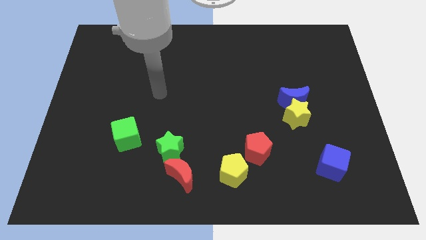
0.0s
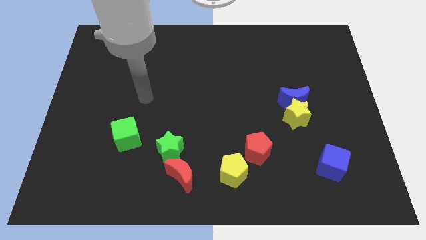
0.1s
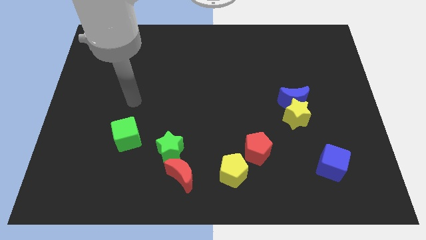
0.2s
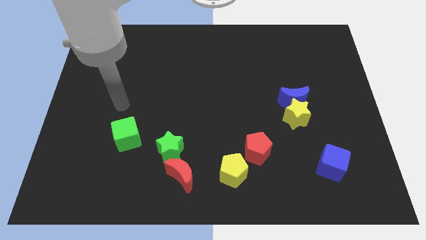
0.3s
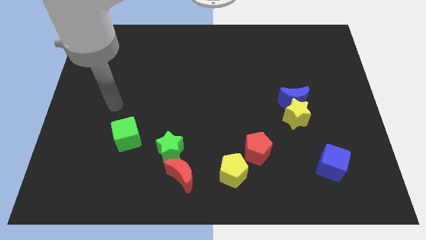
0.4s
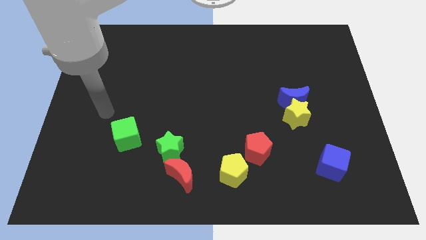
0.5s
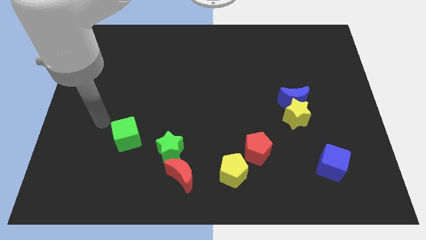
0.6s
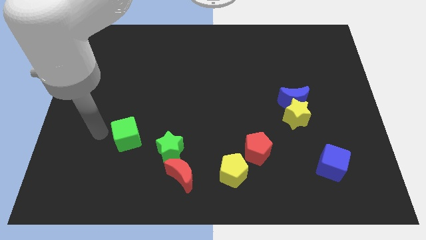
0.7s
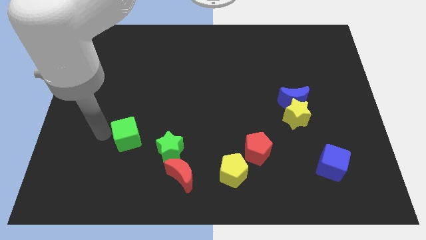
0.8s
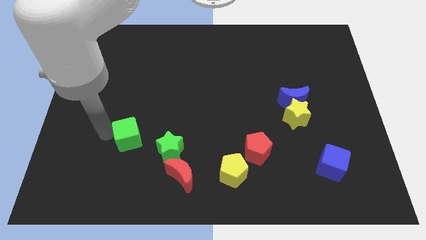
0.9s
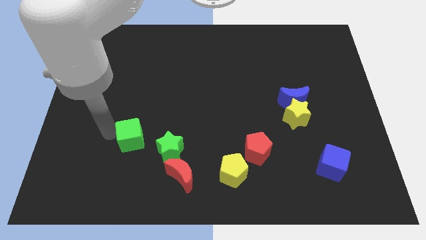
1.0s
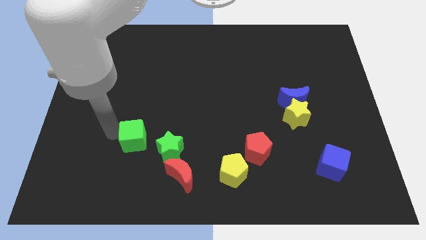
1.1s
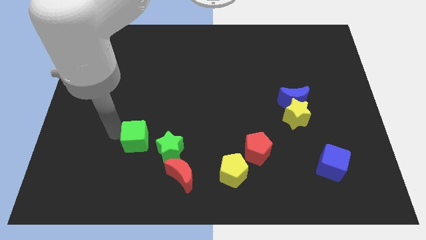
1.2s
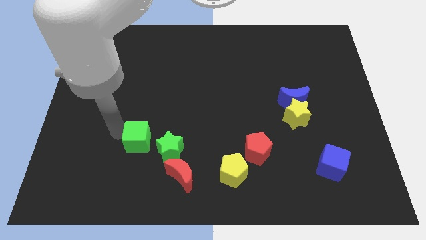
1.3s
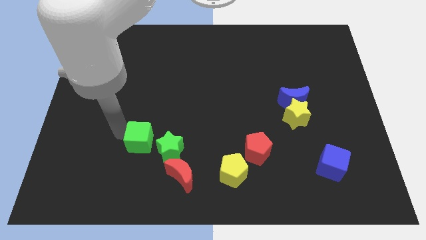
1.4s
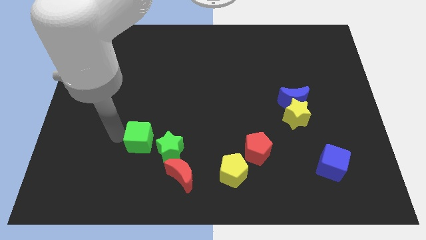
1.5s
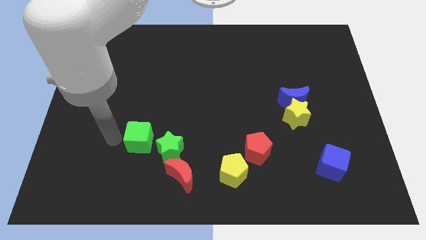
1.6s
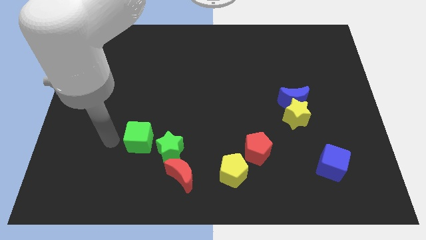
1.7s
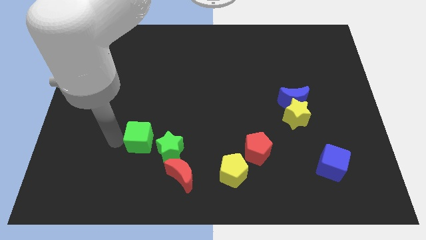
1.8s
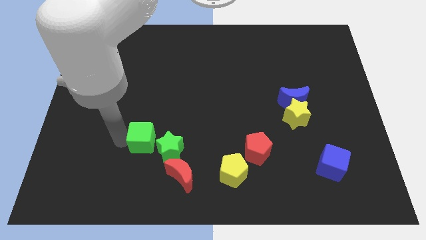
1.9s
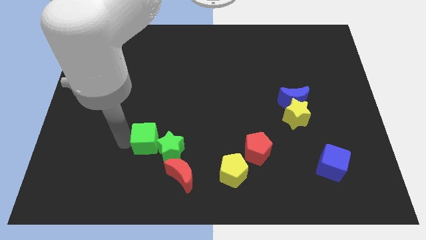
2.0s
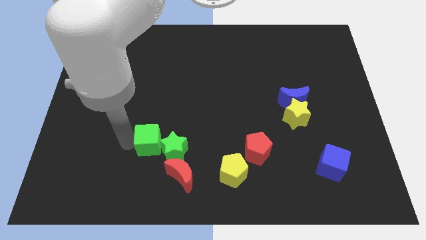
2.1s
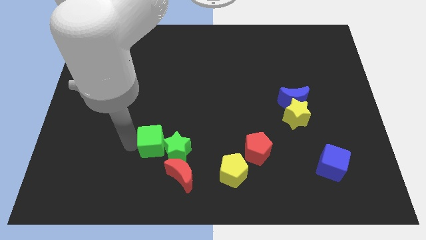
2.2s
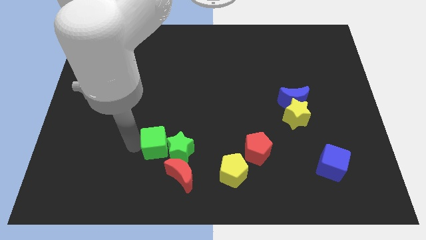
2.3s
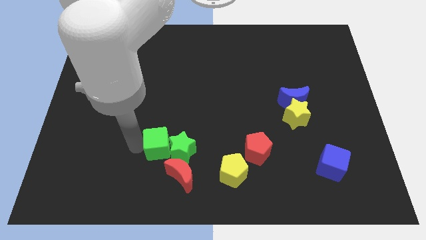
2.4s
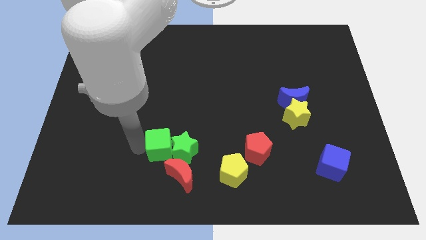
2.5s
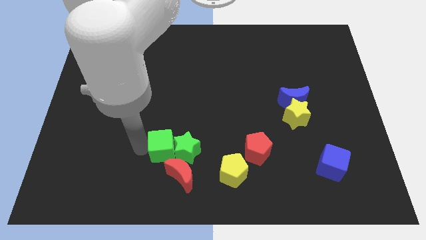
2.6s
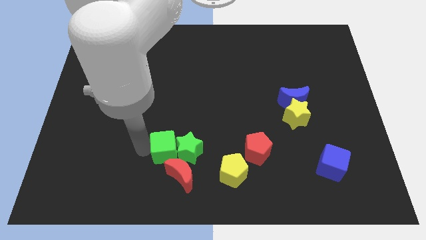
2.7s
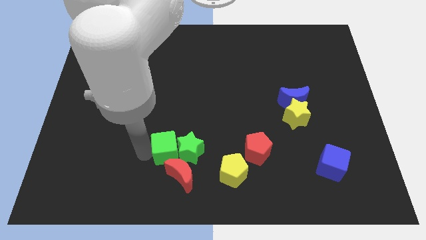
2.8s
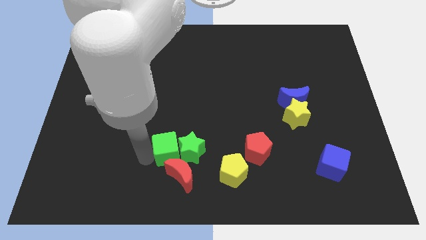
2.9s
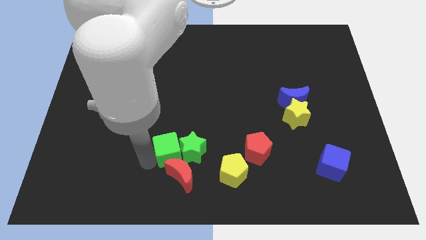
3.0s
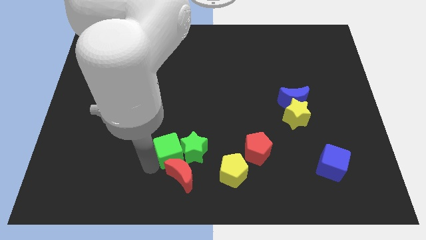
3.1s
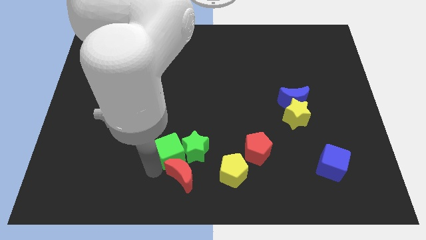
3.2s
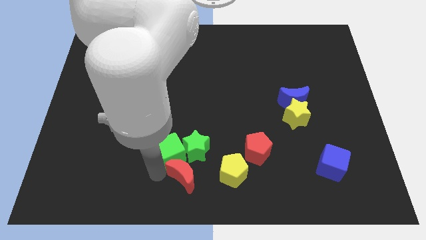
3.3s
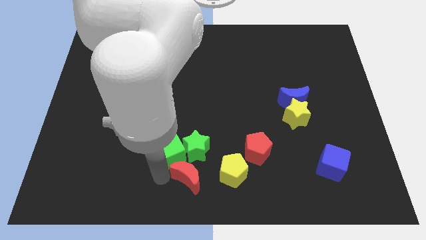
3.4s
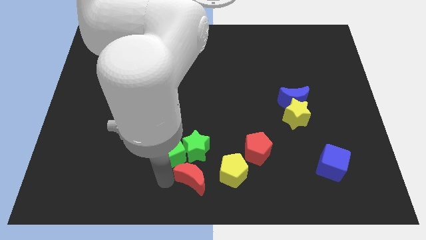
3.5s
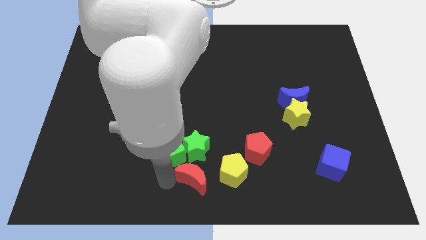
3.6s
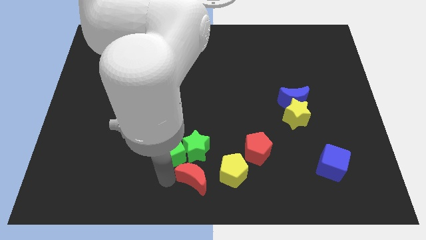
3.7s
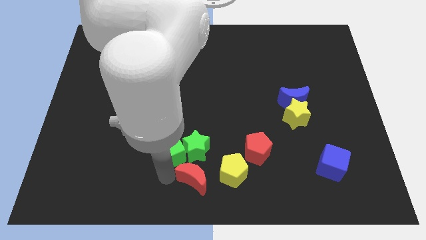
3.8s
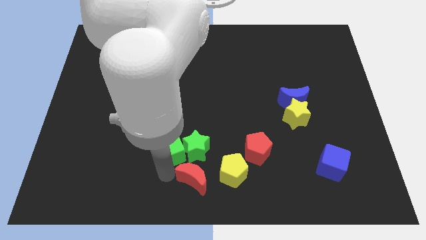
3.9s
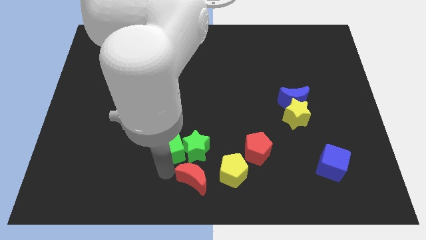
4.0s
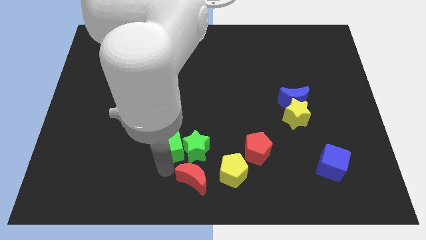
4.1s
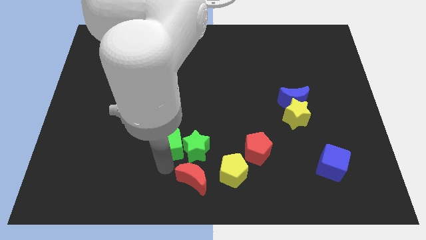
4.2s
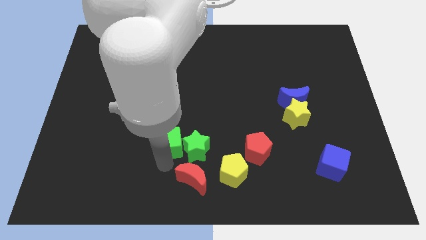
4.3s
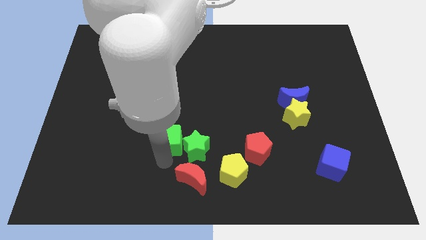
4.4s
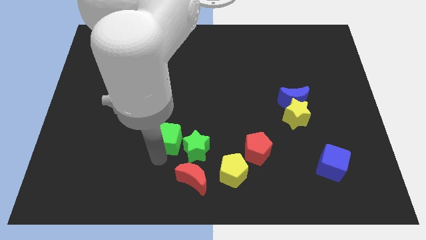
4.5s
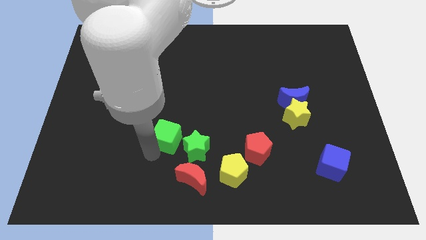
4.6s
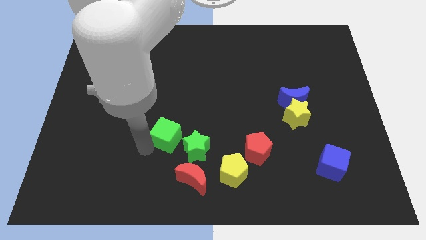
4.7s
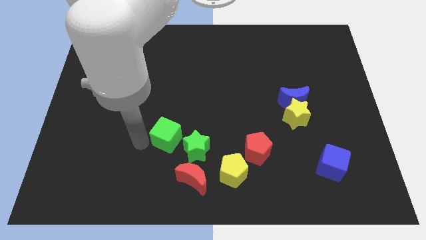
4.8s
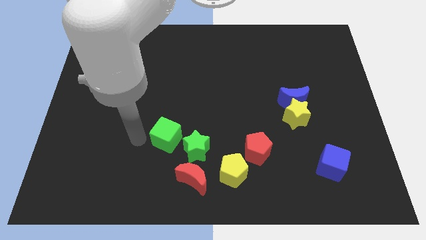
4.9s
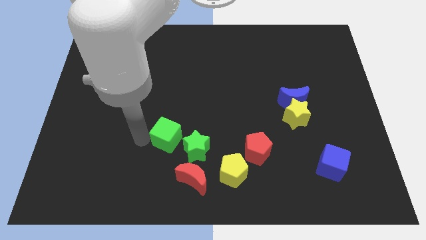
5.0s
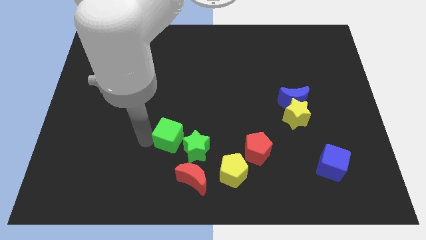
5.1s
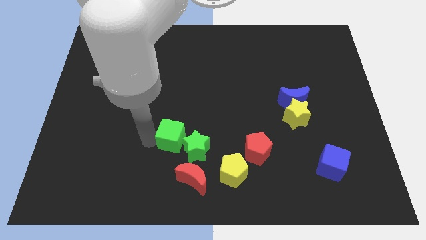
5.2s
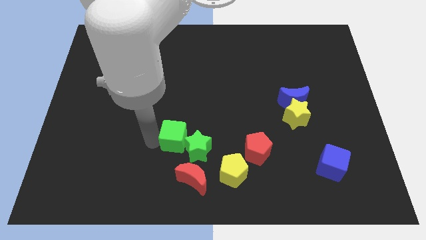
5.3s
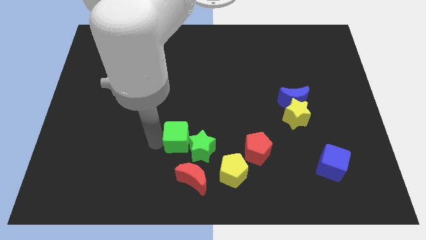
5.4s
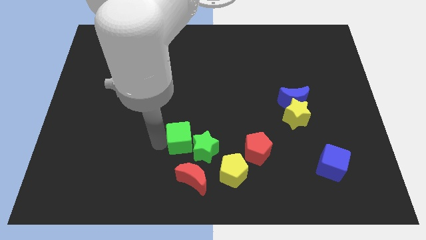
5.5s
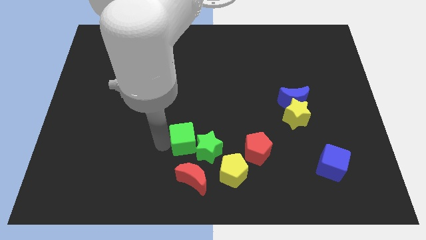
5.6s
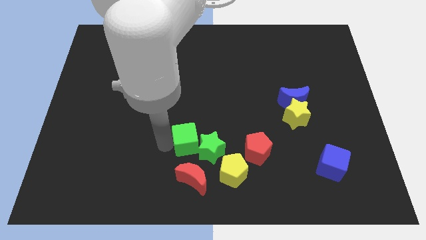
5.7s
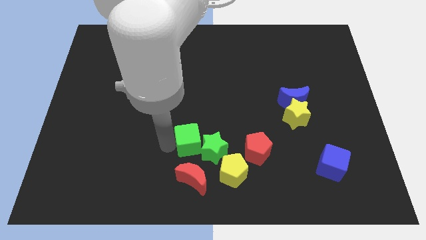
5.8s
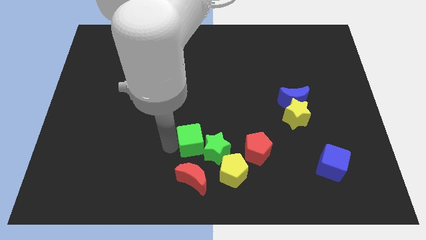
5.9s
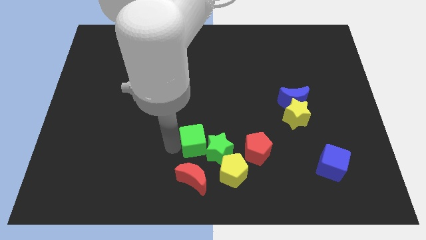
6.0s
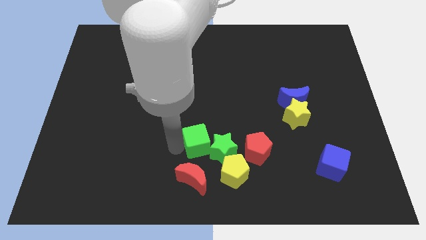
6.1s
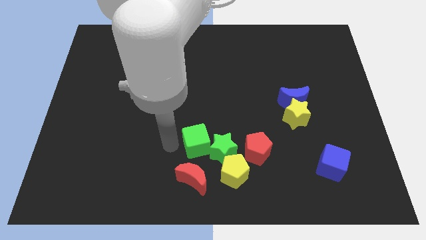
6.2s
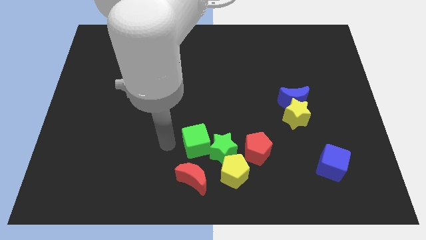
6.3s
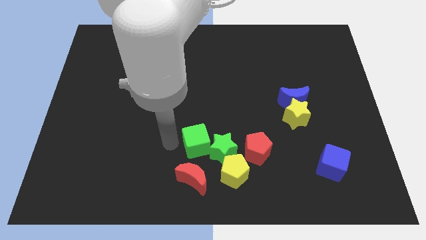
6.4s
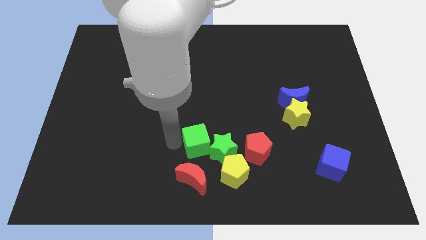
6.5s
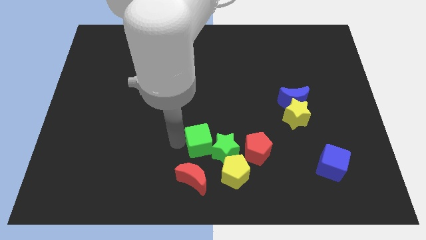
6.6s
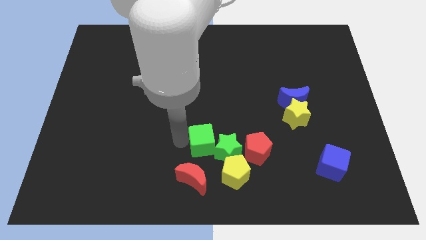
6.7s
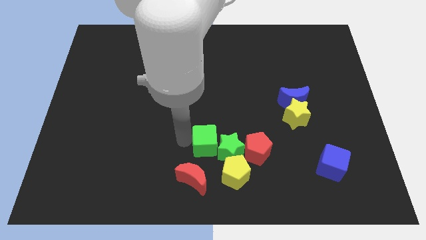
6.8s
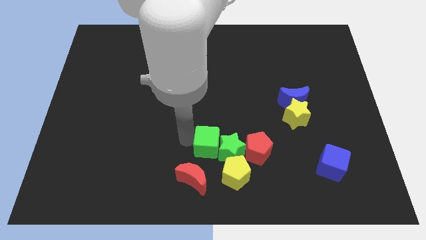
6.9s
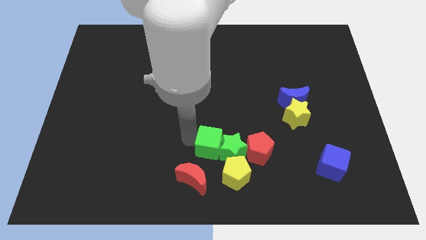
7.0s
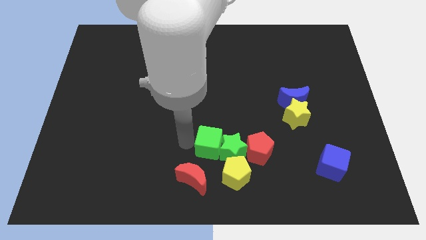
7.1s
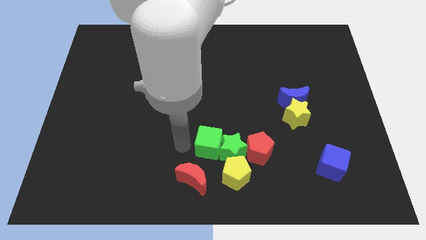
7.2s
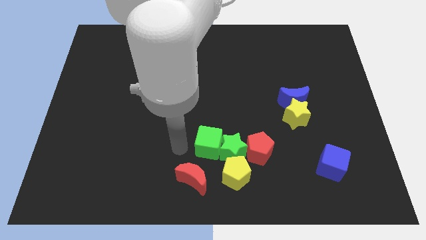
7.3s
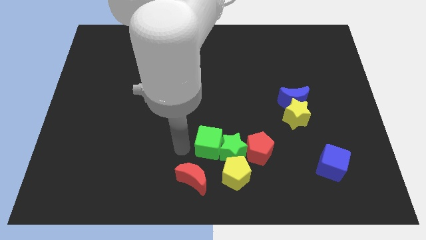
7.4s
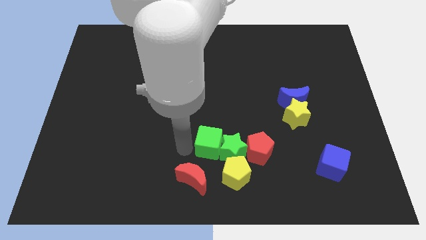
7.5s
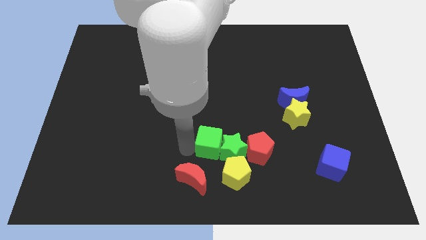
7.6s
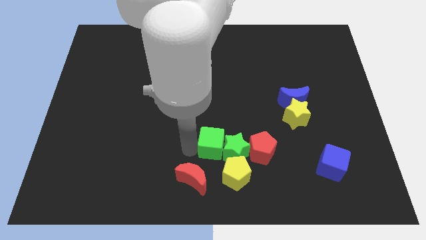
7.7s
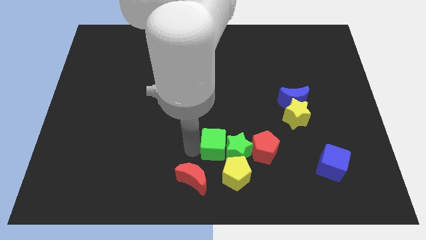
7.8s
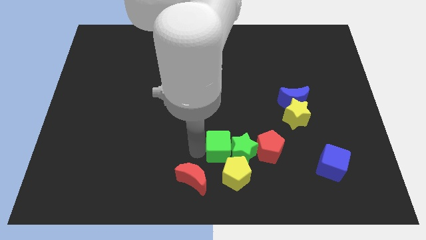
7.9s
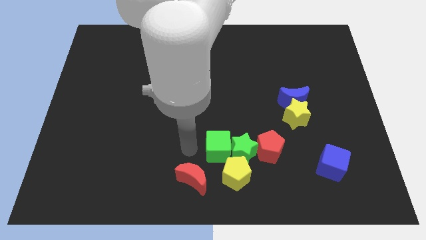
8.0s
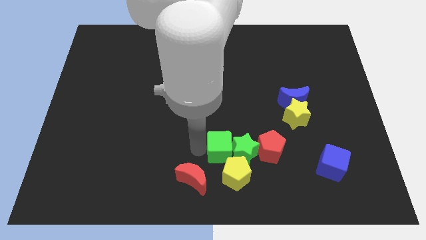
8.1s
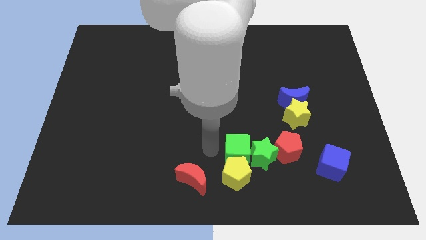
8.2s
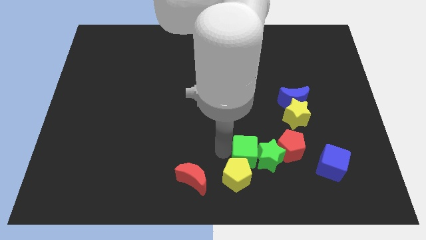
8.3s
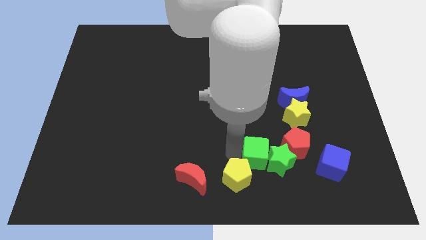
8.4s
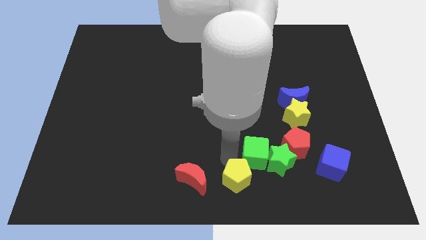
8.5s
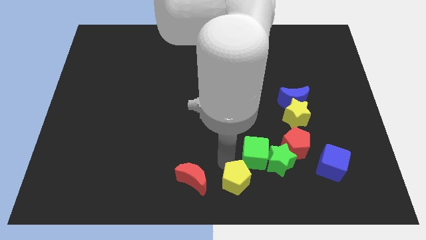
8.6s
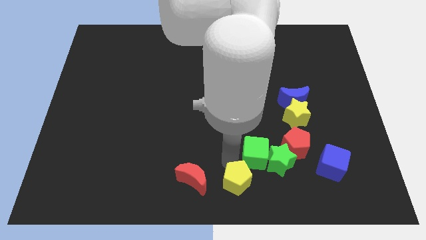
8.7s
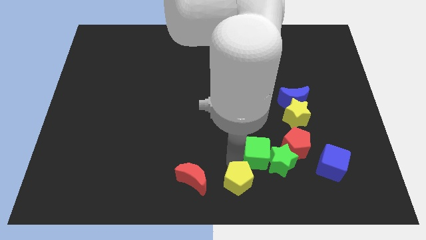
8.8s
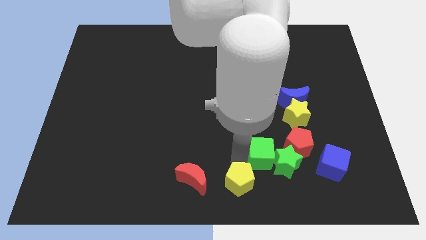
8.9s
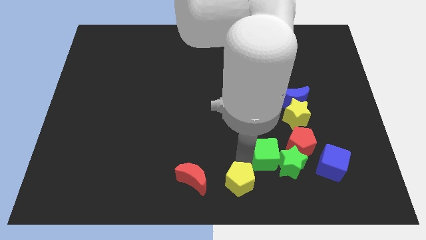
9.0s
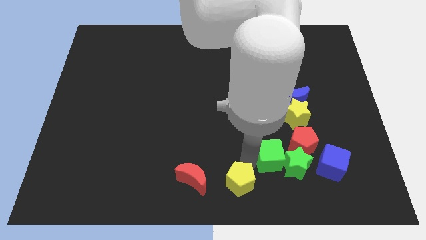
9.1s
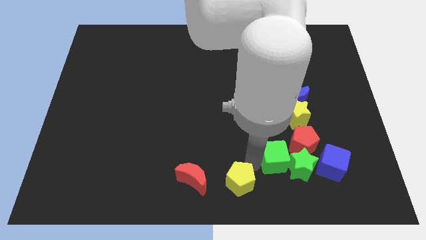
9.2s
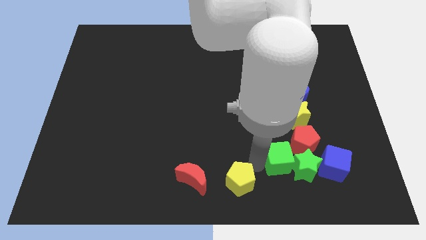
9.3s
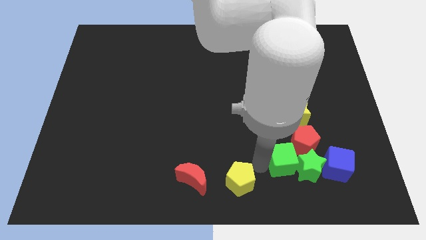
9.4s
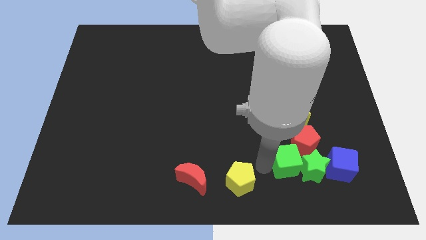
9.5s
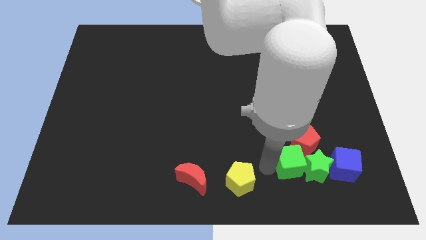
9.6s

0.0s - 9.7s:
put the green cube to the red pentagon
